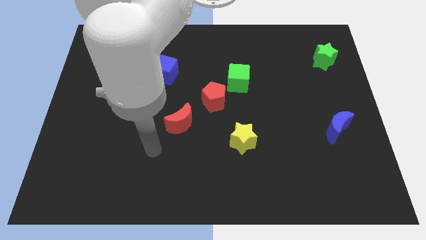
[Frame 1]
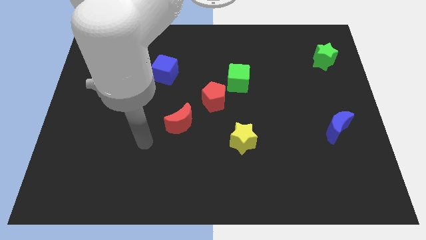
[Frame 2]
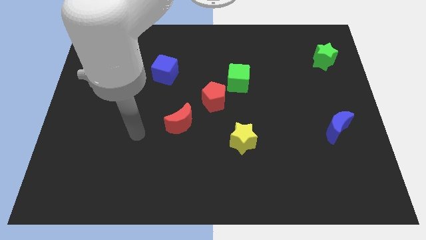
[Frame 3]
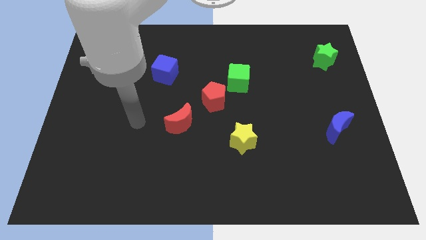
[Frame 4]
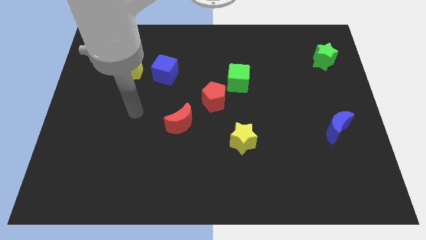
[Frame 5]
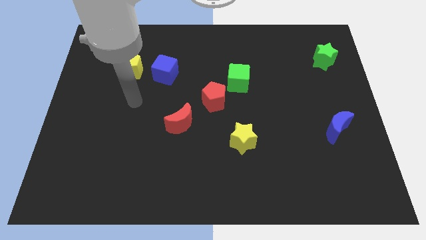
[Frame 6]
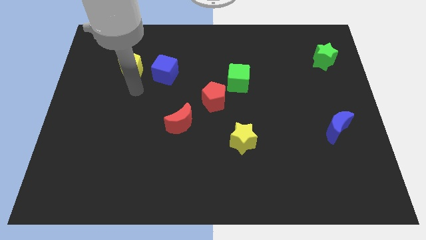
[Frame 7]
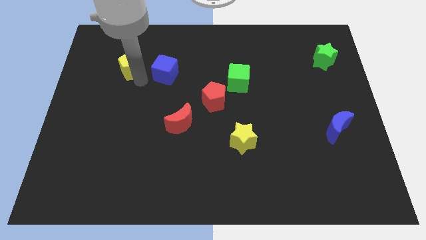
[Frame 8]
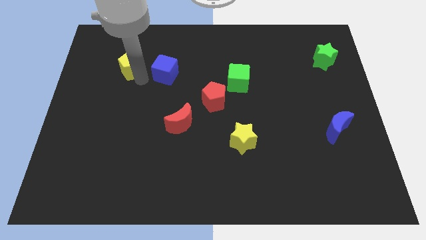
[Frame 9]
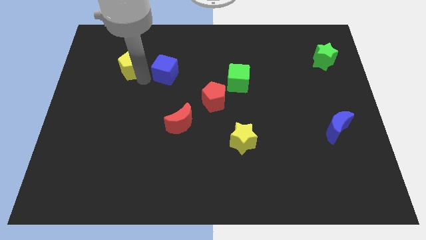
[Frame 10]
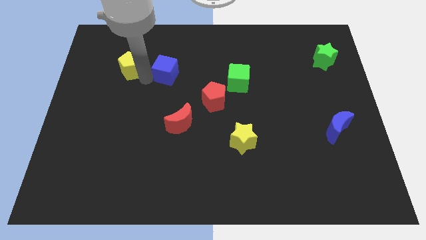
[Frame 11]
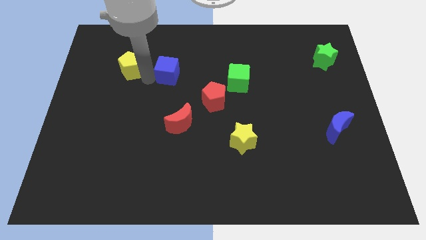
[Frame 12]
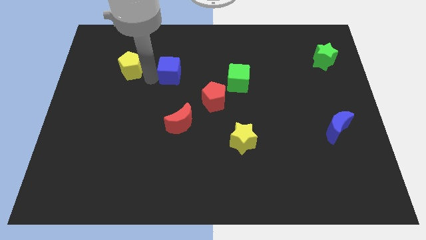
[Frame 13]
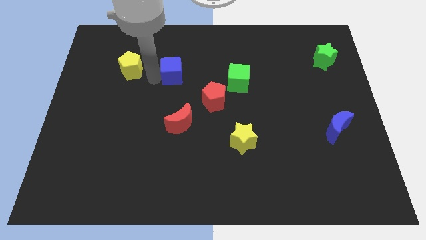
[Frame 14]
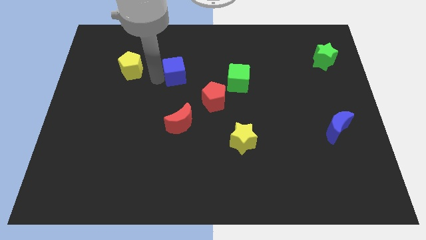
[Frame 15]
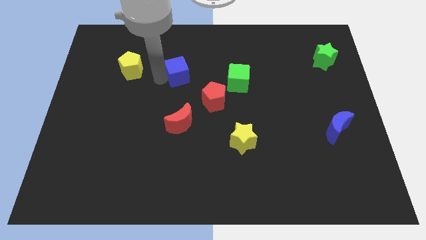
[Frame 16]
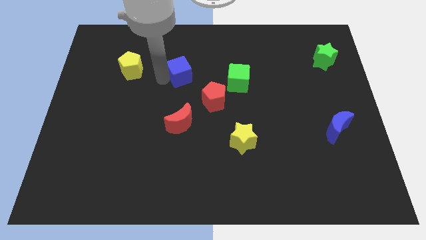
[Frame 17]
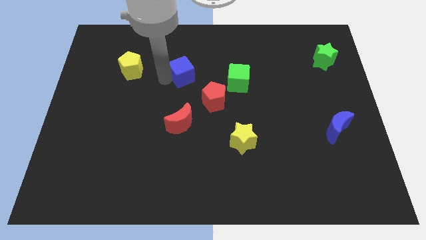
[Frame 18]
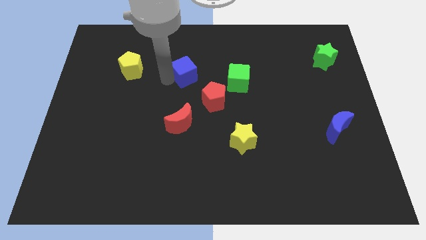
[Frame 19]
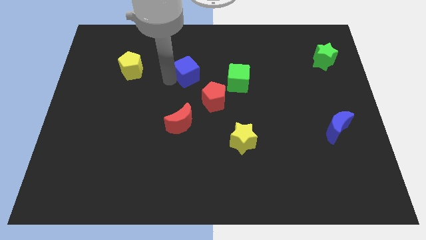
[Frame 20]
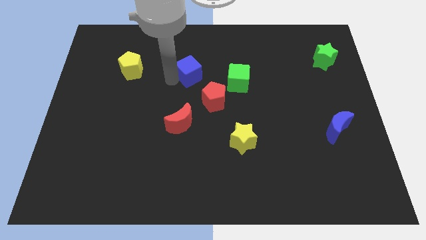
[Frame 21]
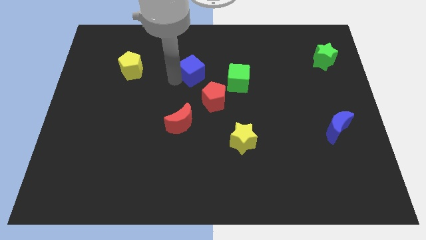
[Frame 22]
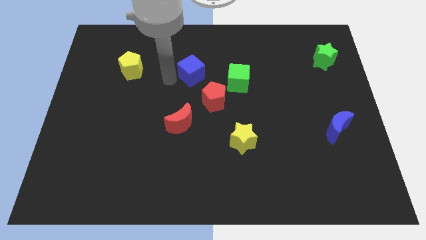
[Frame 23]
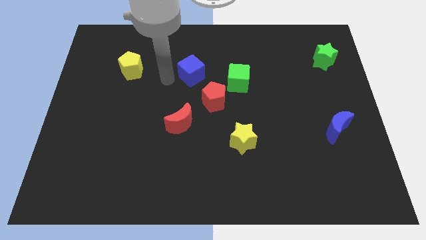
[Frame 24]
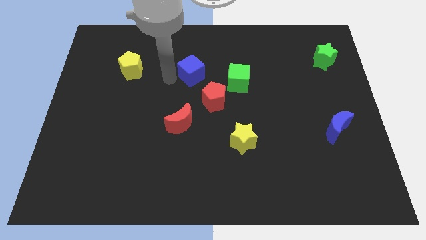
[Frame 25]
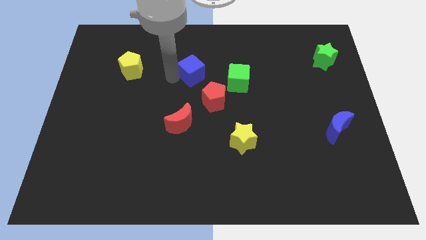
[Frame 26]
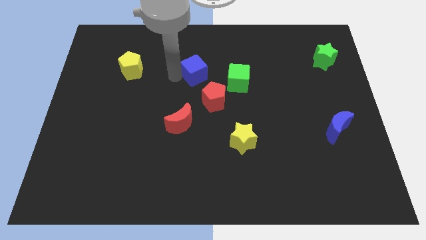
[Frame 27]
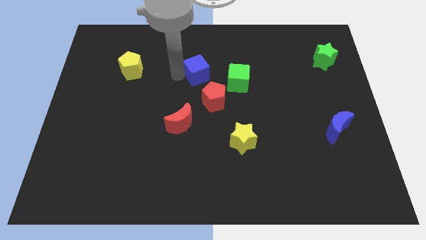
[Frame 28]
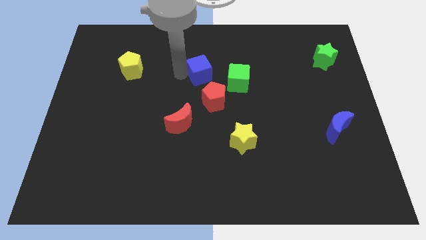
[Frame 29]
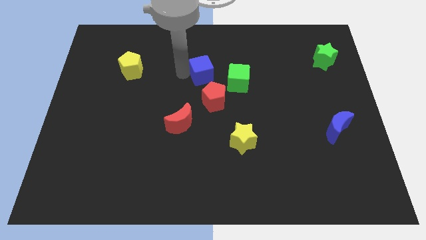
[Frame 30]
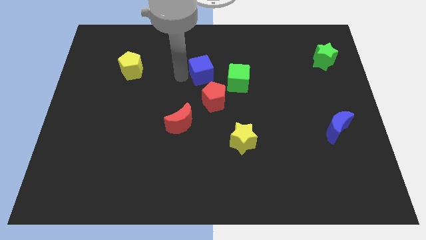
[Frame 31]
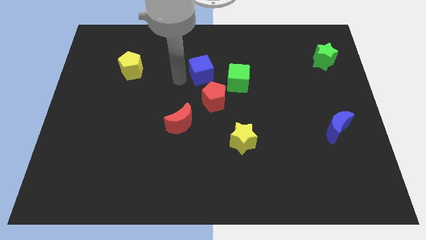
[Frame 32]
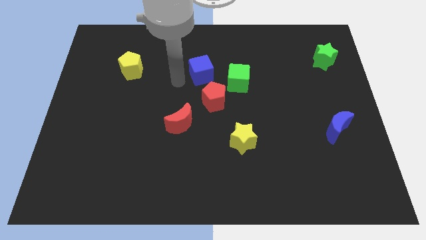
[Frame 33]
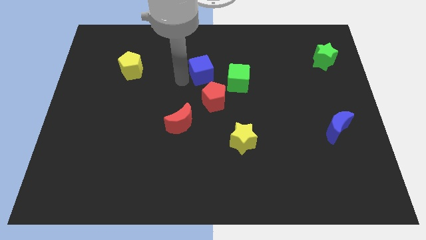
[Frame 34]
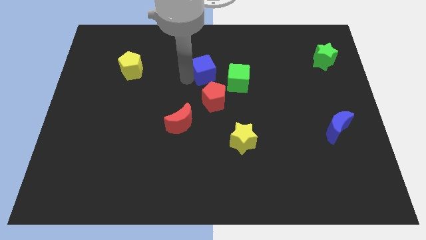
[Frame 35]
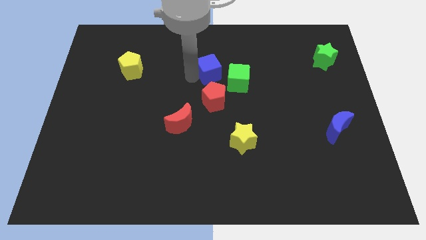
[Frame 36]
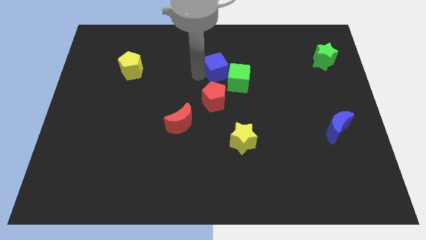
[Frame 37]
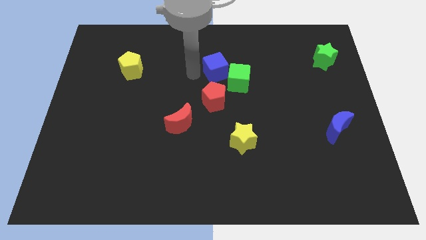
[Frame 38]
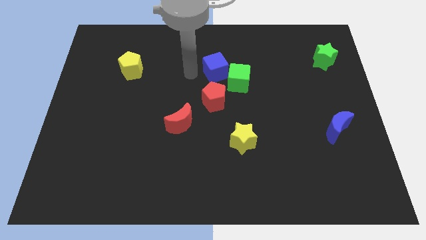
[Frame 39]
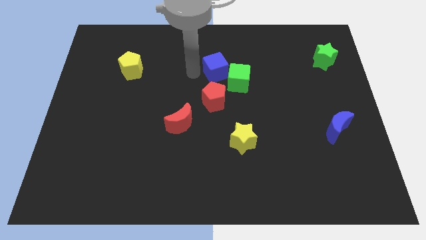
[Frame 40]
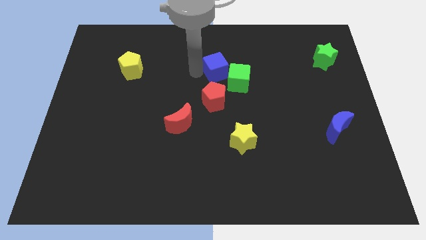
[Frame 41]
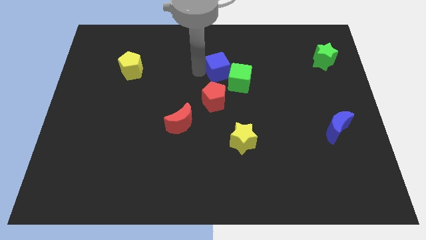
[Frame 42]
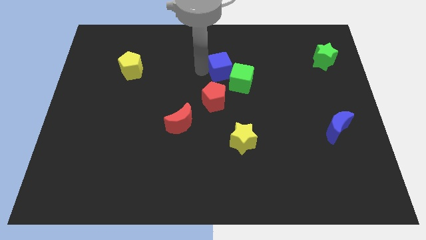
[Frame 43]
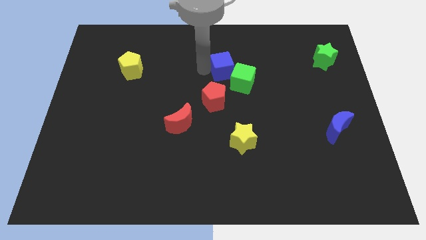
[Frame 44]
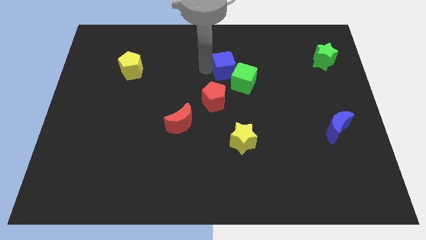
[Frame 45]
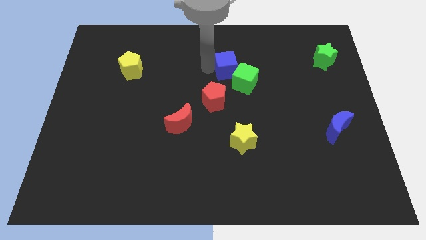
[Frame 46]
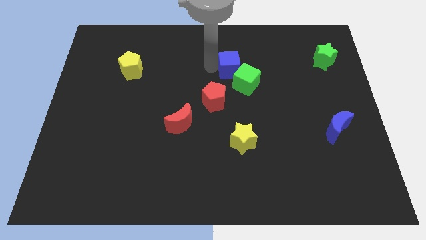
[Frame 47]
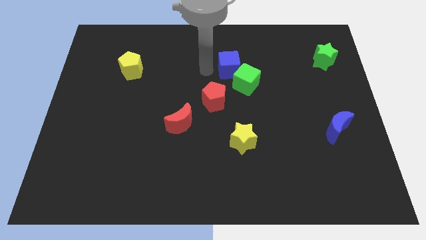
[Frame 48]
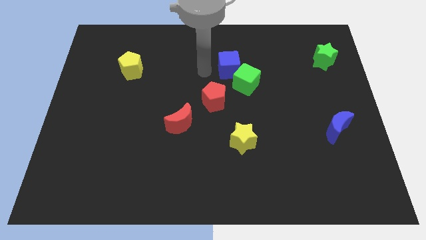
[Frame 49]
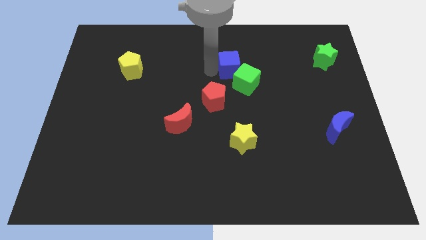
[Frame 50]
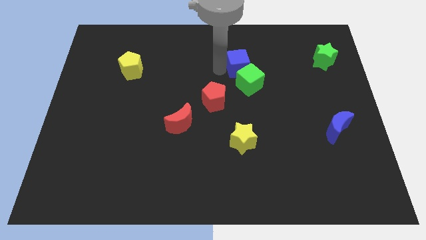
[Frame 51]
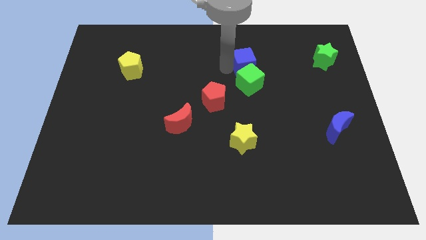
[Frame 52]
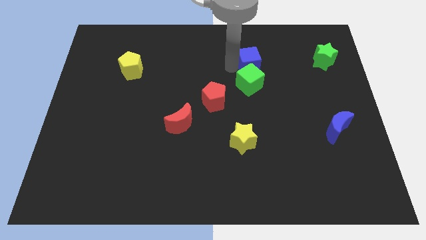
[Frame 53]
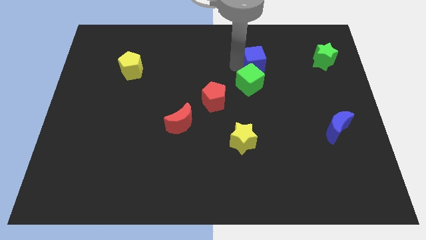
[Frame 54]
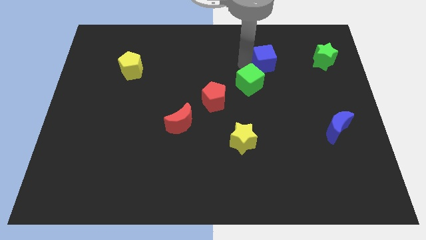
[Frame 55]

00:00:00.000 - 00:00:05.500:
move the blue cube to the left of the green star

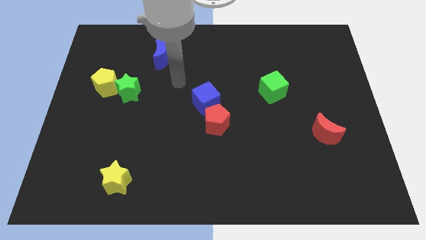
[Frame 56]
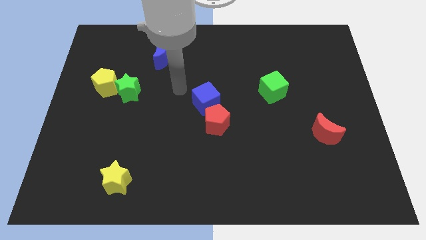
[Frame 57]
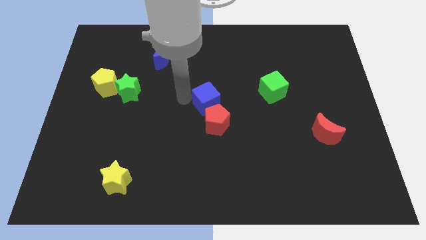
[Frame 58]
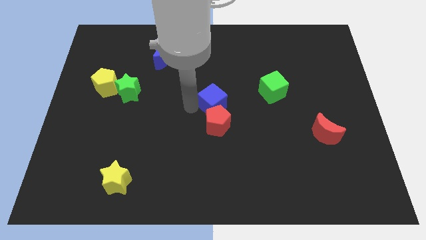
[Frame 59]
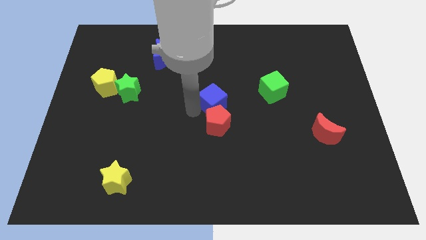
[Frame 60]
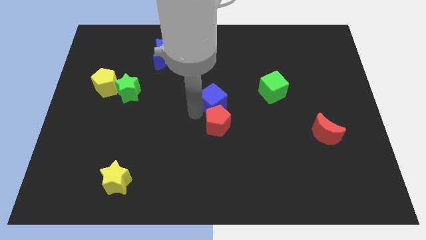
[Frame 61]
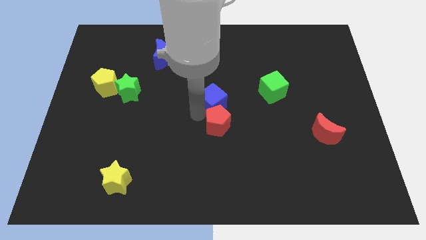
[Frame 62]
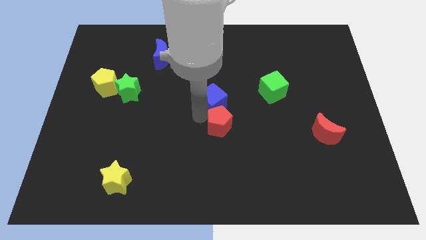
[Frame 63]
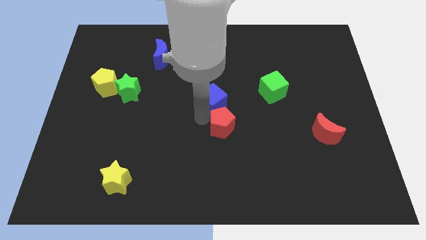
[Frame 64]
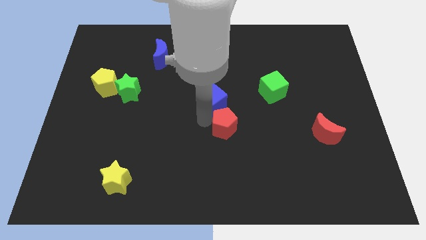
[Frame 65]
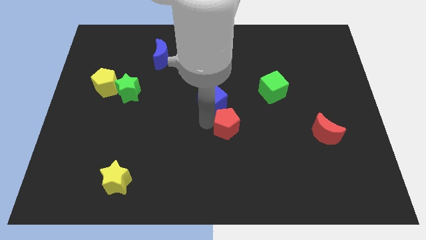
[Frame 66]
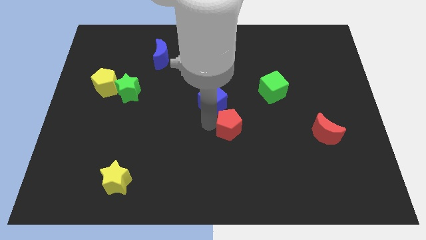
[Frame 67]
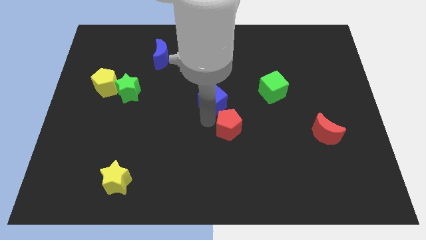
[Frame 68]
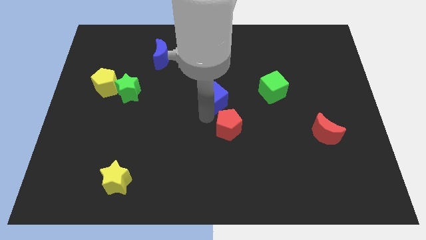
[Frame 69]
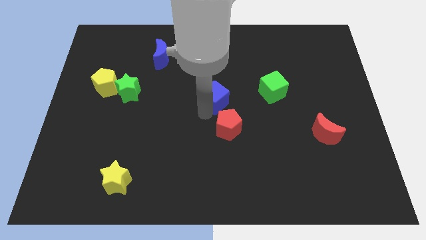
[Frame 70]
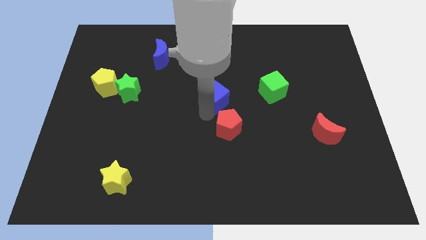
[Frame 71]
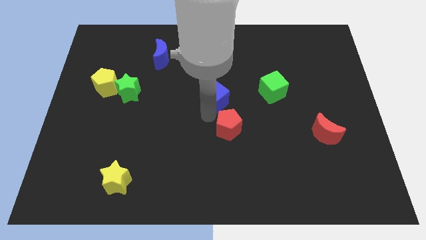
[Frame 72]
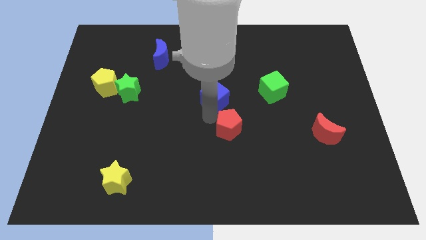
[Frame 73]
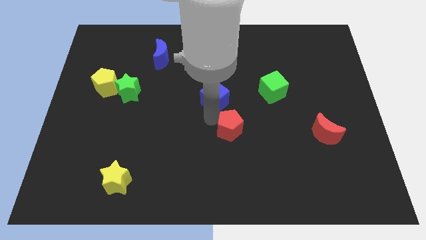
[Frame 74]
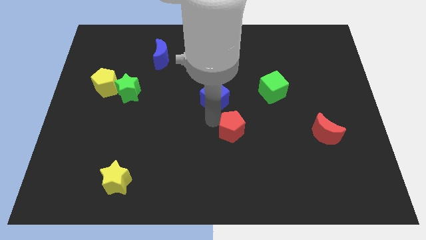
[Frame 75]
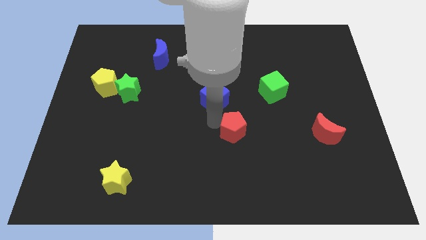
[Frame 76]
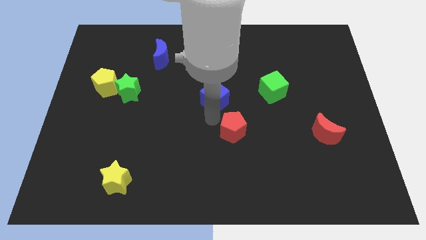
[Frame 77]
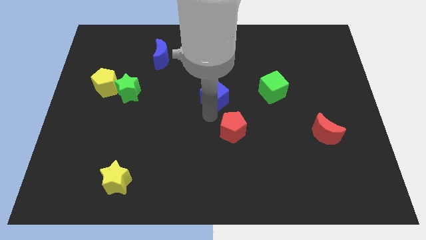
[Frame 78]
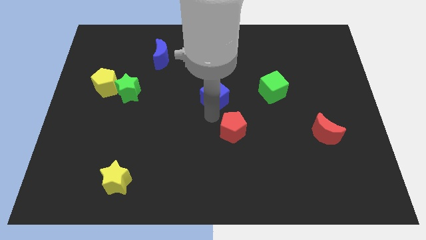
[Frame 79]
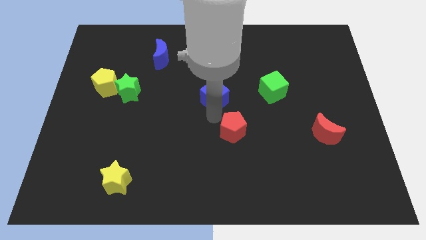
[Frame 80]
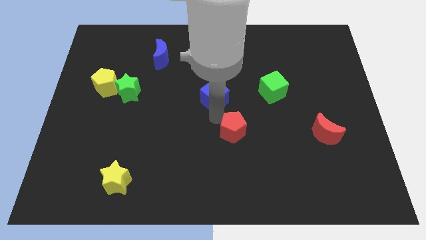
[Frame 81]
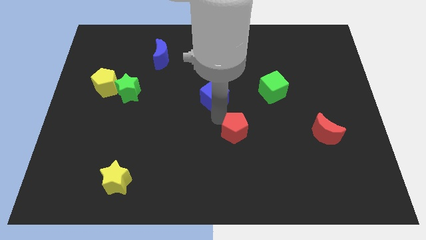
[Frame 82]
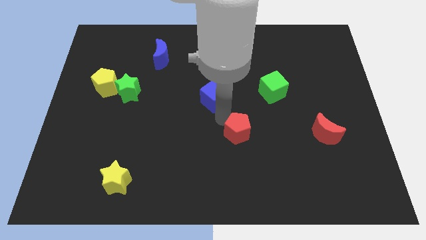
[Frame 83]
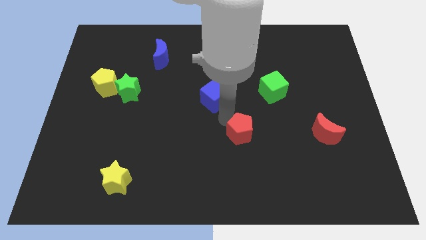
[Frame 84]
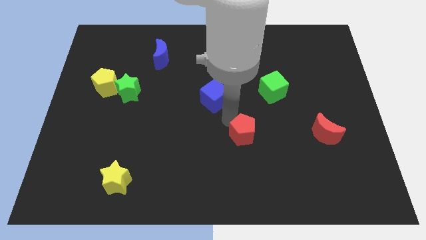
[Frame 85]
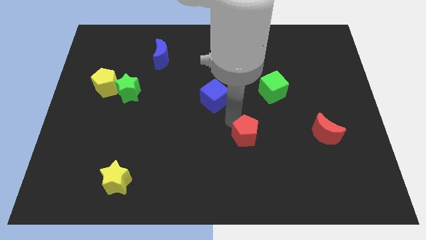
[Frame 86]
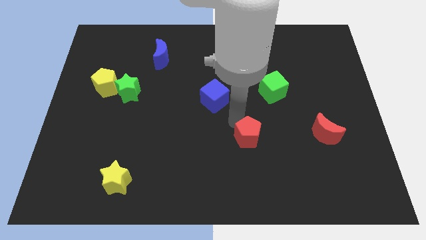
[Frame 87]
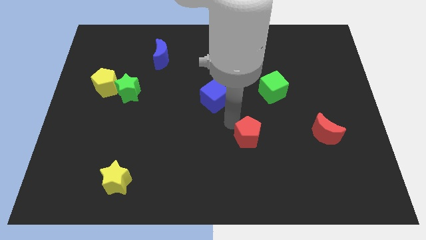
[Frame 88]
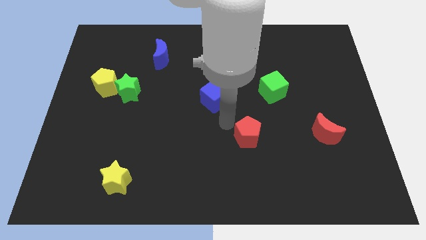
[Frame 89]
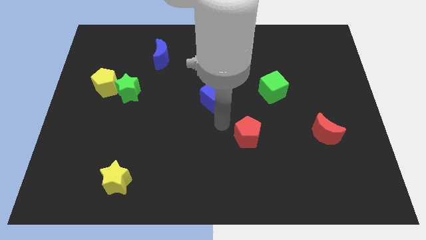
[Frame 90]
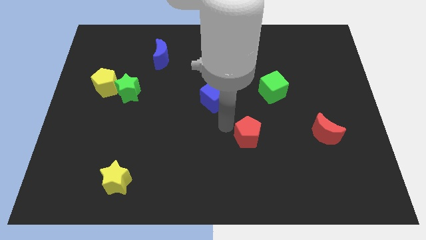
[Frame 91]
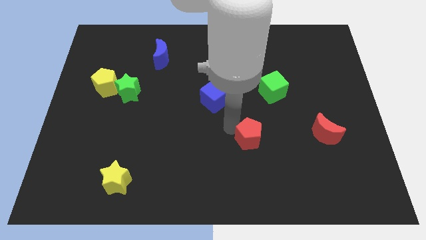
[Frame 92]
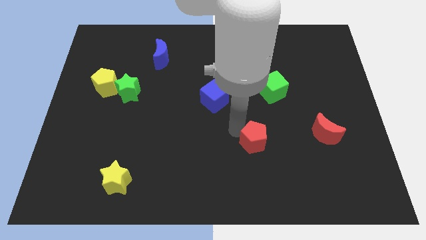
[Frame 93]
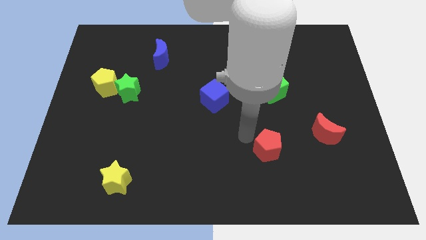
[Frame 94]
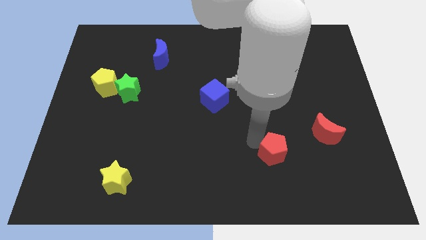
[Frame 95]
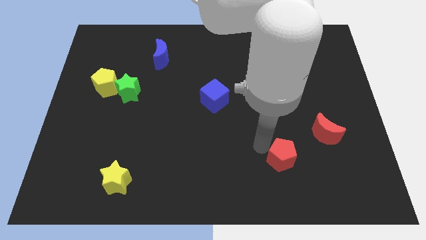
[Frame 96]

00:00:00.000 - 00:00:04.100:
put the red pentagon diagonally down and to the left of the red moon
